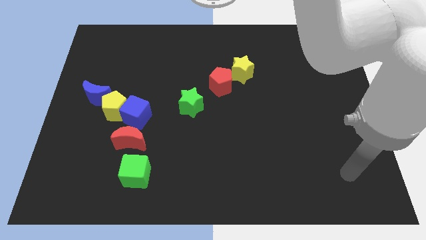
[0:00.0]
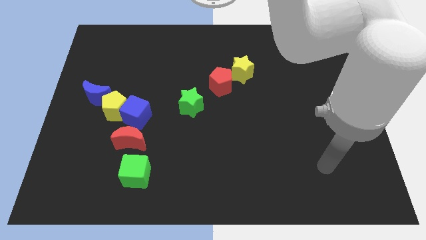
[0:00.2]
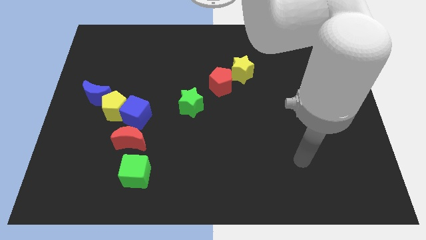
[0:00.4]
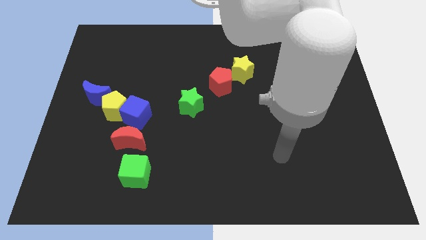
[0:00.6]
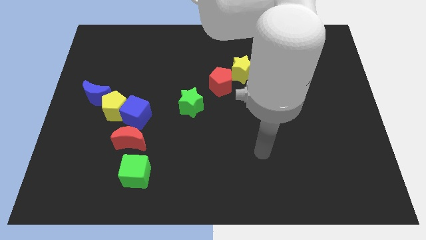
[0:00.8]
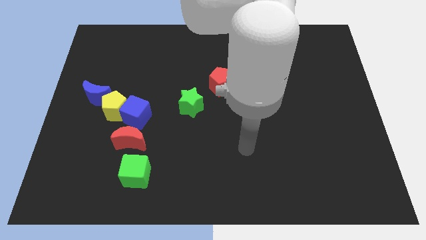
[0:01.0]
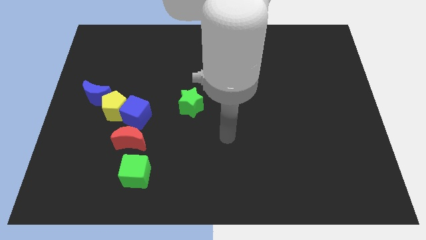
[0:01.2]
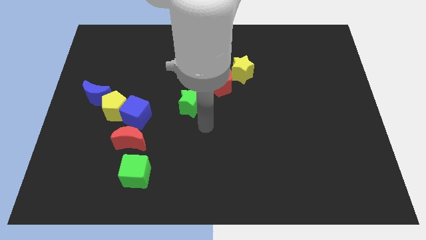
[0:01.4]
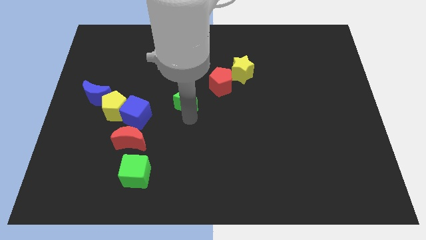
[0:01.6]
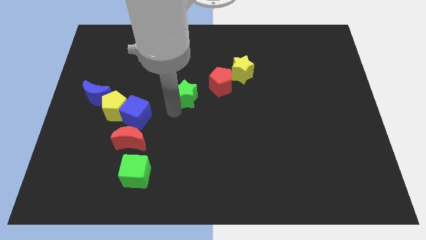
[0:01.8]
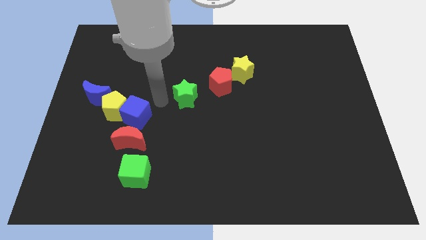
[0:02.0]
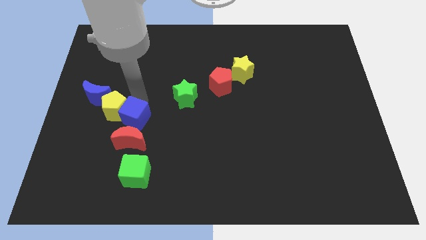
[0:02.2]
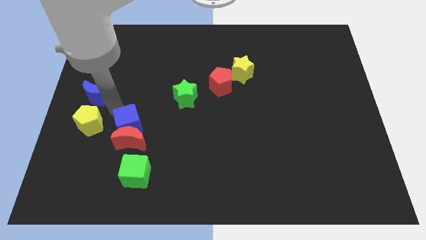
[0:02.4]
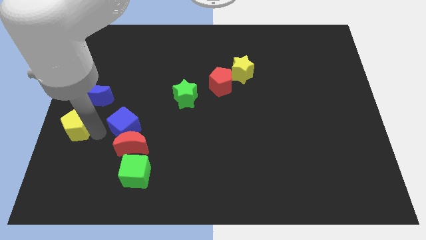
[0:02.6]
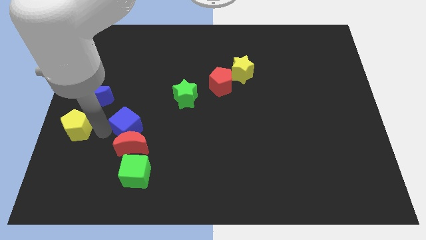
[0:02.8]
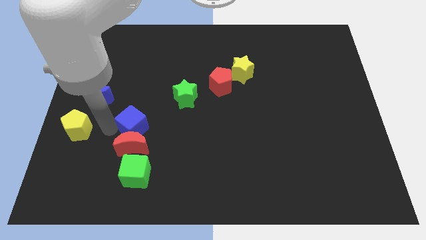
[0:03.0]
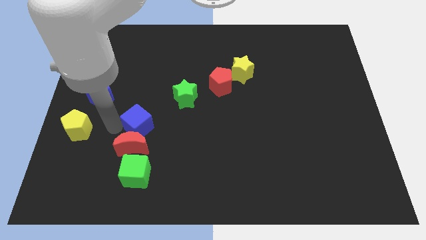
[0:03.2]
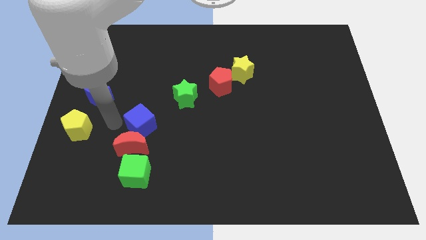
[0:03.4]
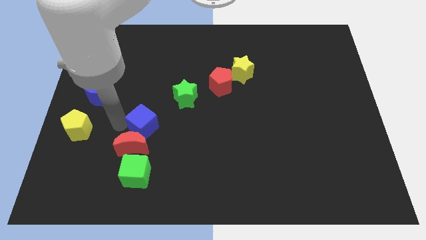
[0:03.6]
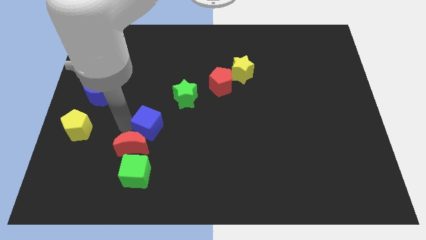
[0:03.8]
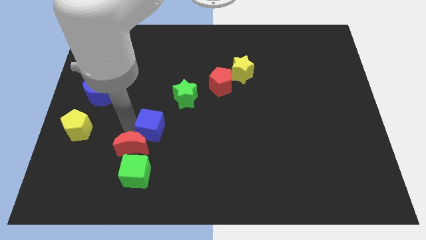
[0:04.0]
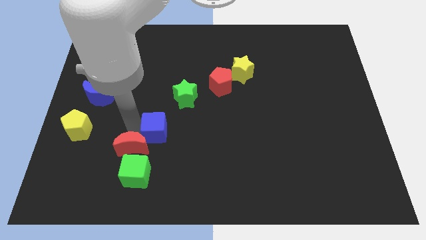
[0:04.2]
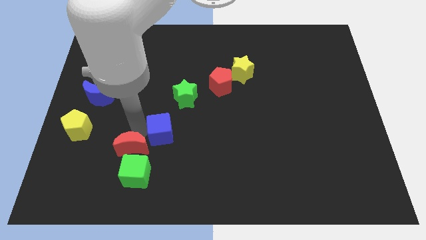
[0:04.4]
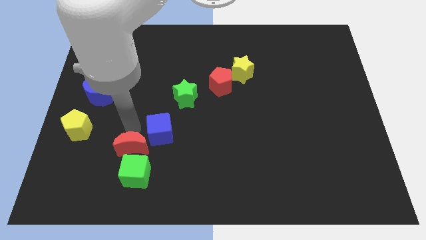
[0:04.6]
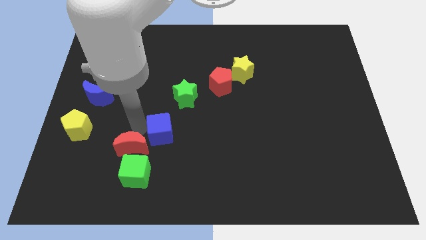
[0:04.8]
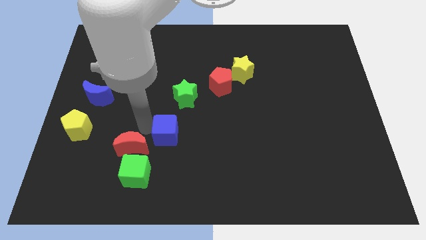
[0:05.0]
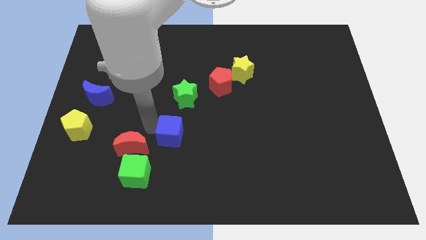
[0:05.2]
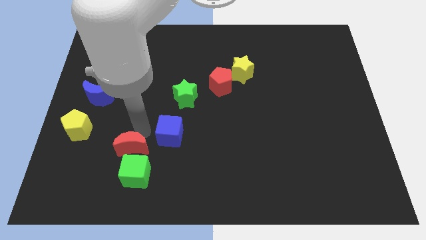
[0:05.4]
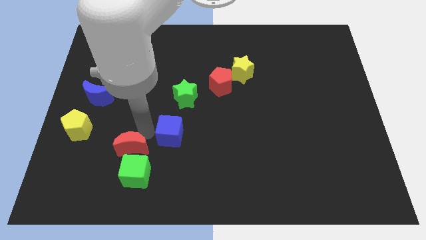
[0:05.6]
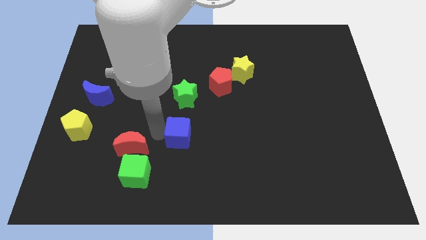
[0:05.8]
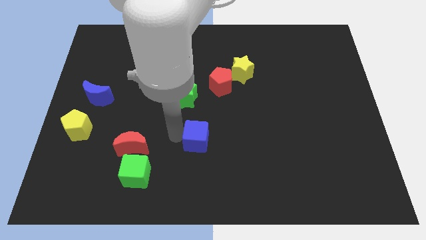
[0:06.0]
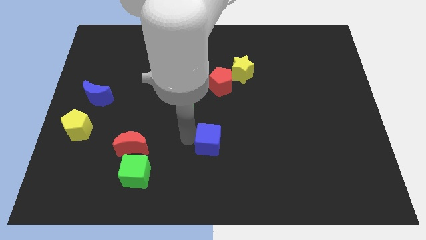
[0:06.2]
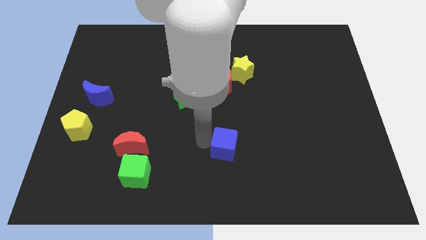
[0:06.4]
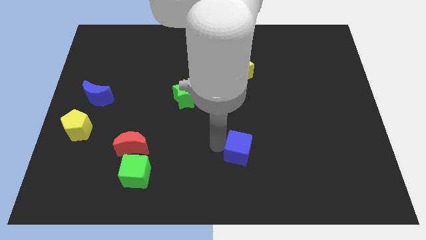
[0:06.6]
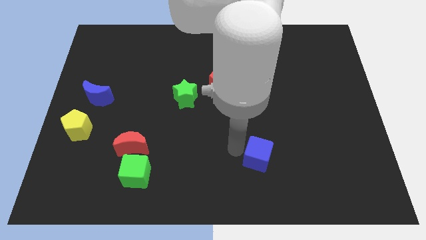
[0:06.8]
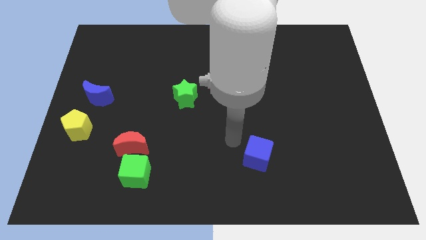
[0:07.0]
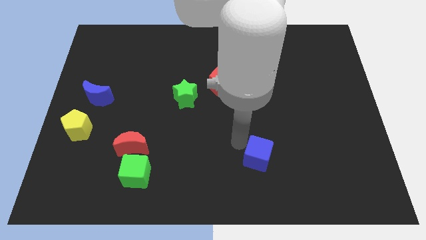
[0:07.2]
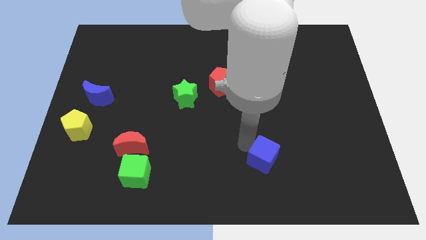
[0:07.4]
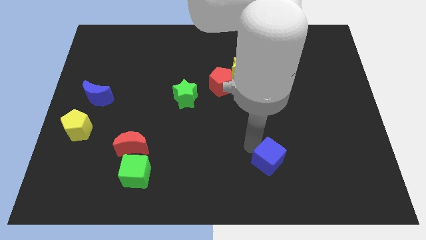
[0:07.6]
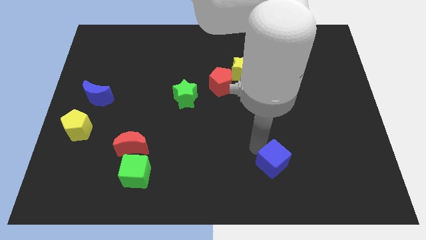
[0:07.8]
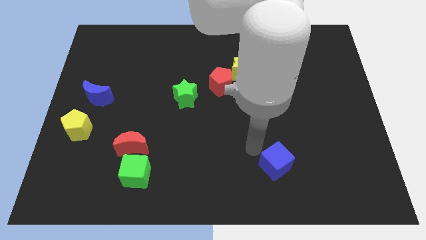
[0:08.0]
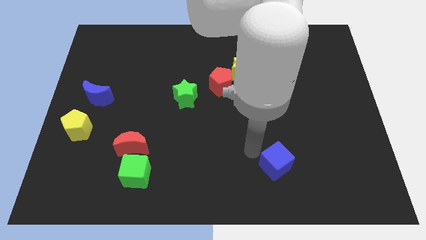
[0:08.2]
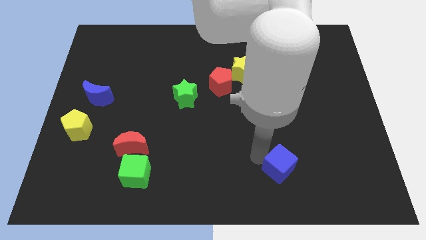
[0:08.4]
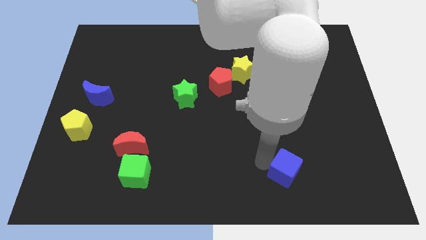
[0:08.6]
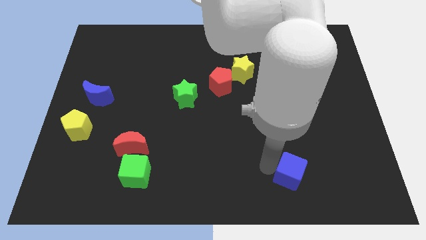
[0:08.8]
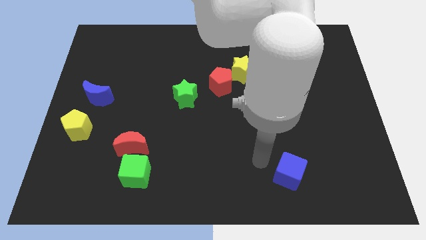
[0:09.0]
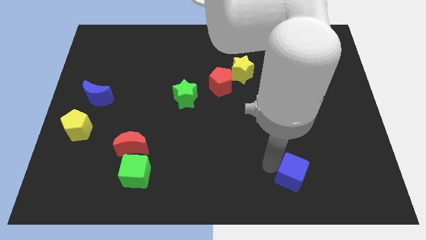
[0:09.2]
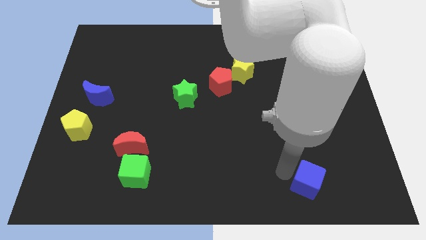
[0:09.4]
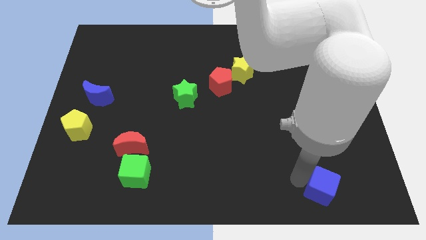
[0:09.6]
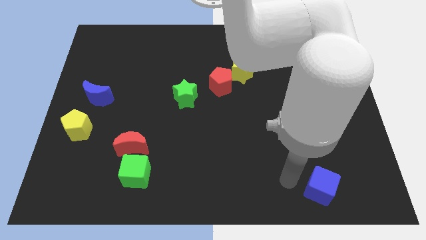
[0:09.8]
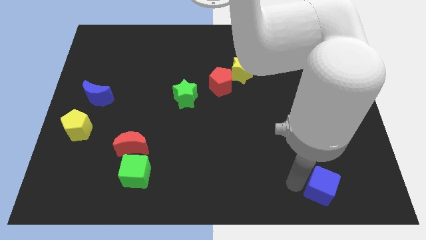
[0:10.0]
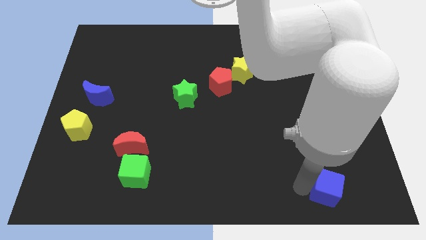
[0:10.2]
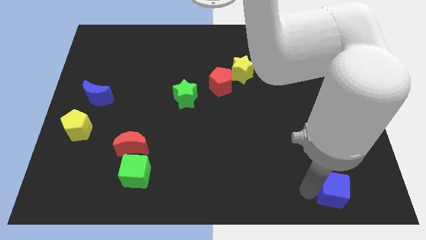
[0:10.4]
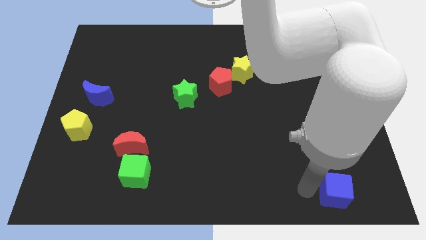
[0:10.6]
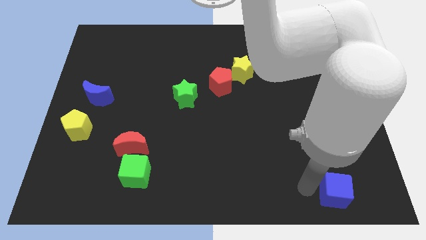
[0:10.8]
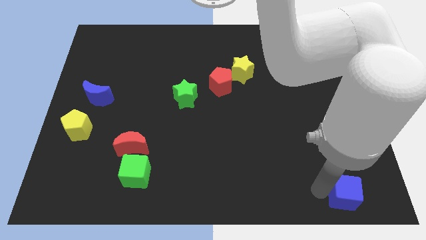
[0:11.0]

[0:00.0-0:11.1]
put the blue cube to the bottom right
